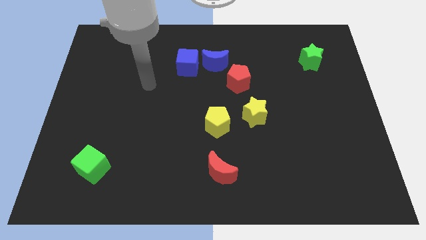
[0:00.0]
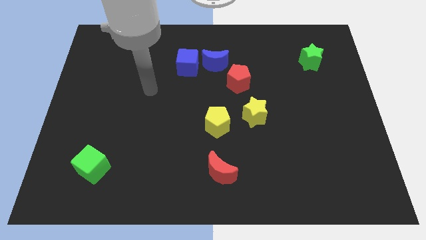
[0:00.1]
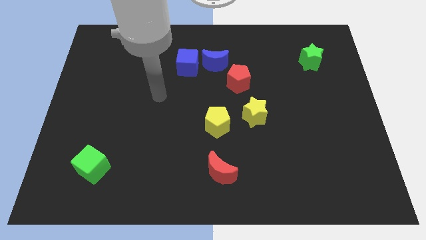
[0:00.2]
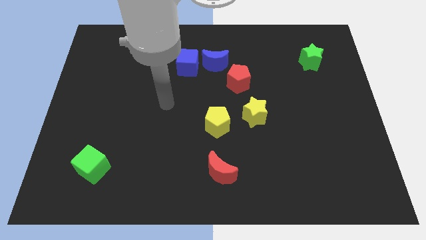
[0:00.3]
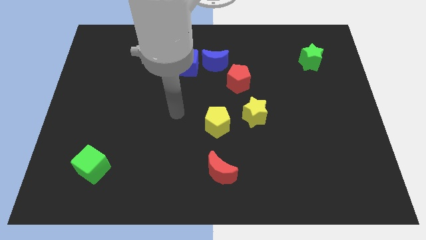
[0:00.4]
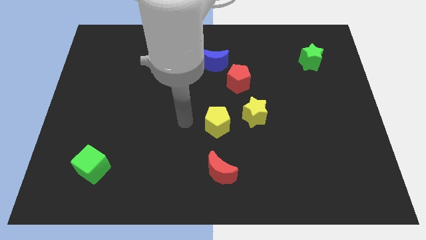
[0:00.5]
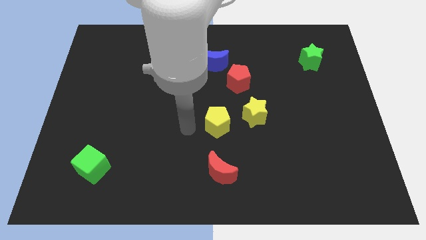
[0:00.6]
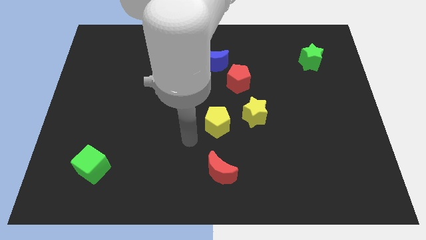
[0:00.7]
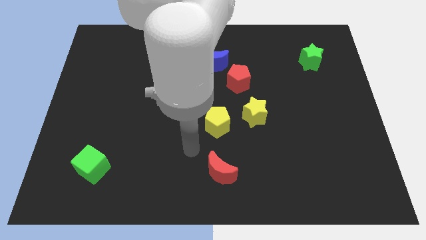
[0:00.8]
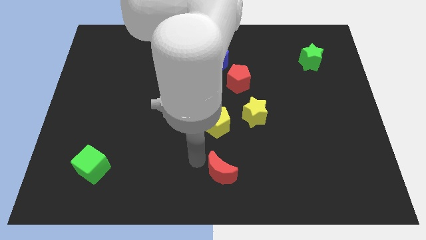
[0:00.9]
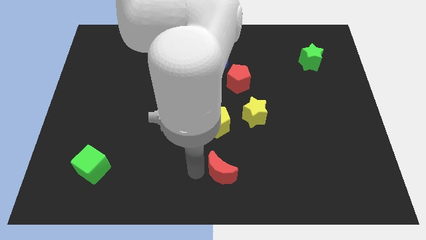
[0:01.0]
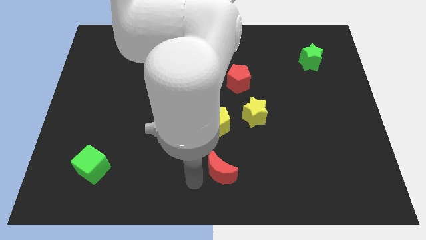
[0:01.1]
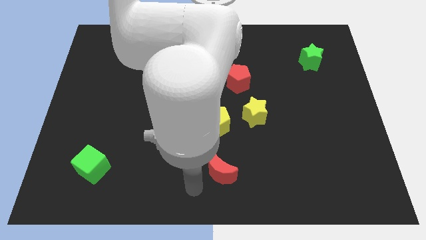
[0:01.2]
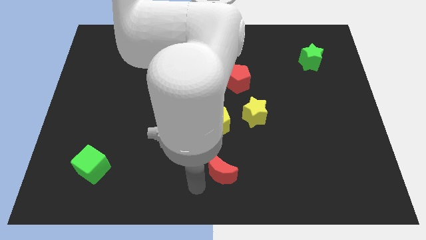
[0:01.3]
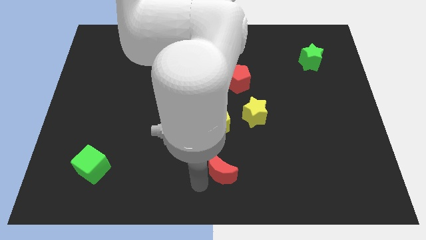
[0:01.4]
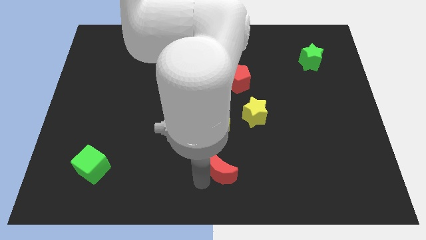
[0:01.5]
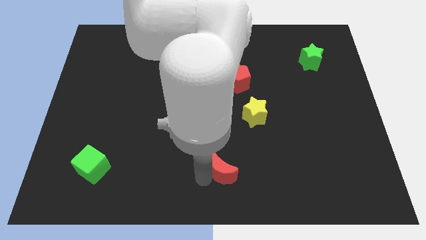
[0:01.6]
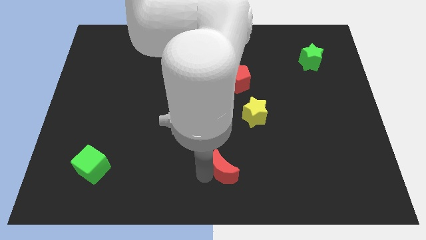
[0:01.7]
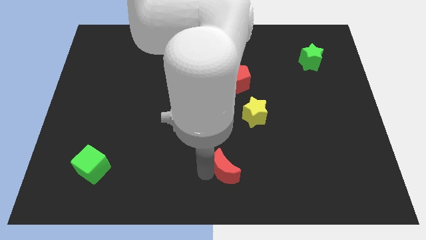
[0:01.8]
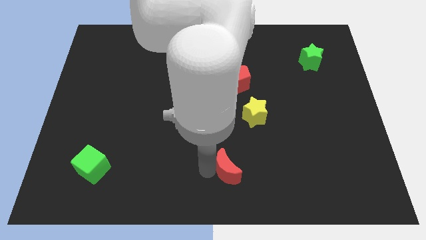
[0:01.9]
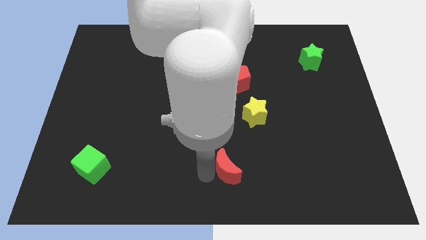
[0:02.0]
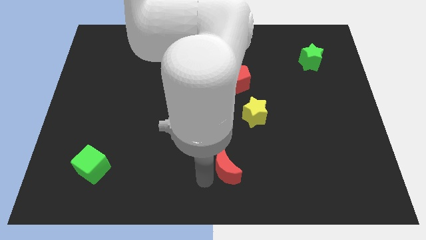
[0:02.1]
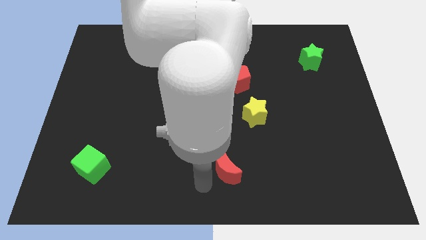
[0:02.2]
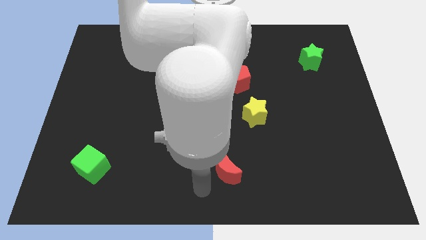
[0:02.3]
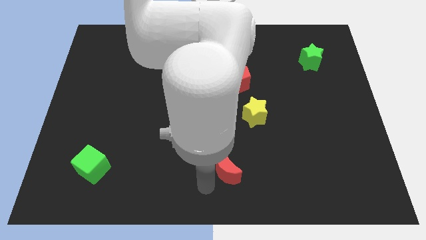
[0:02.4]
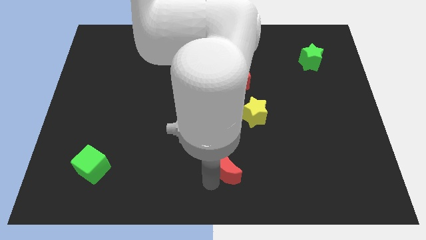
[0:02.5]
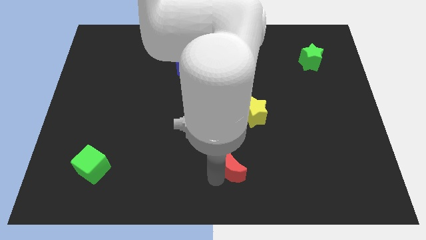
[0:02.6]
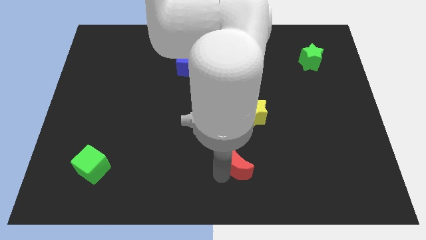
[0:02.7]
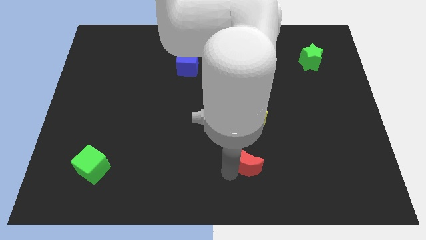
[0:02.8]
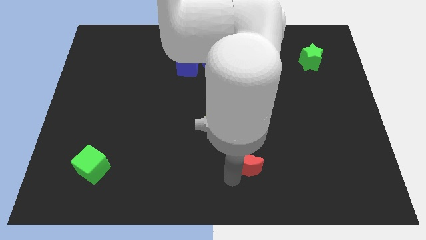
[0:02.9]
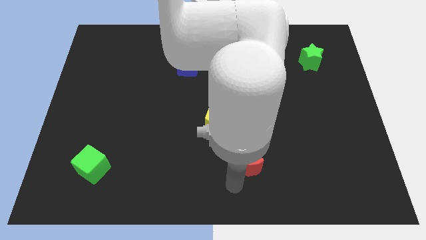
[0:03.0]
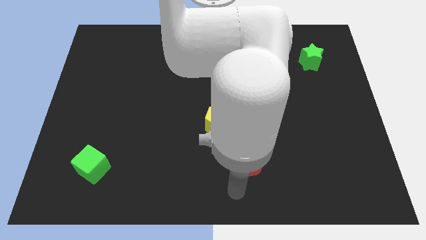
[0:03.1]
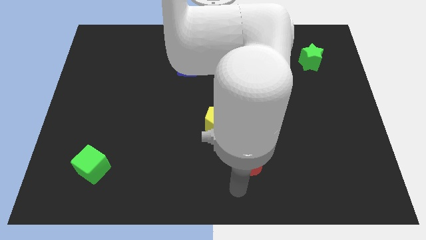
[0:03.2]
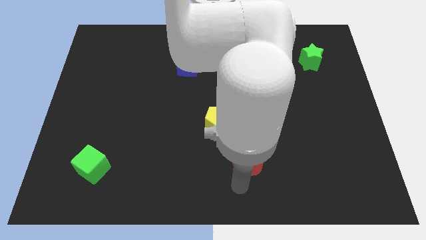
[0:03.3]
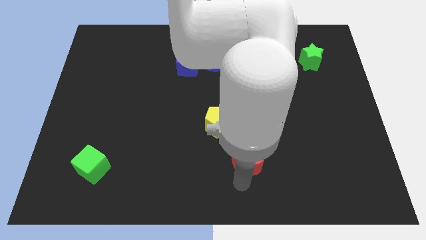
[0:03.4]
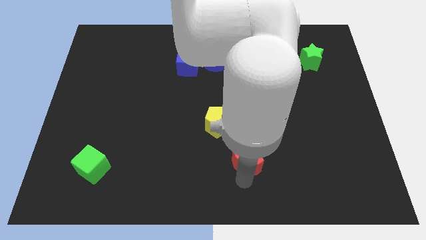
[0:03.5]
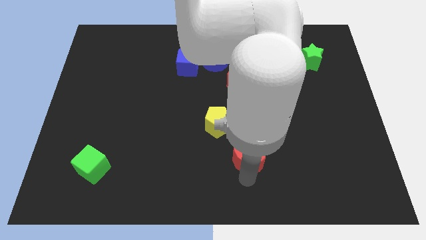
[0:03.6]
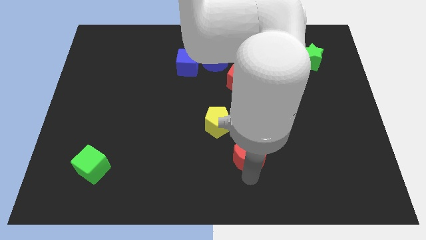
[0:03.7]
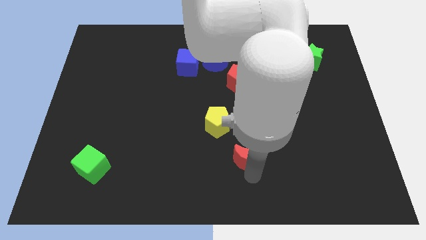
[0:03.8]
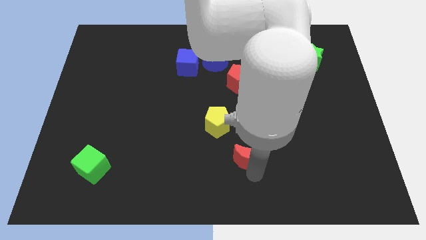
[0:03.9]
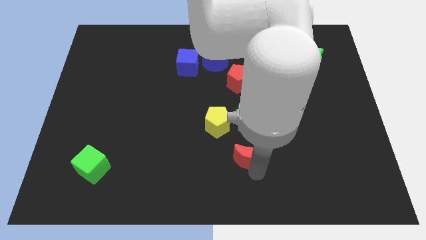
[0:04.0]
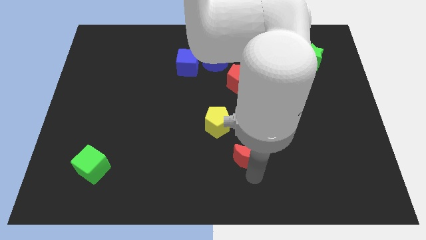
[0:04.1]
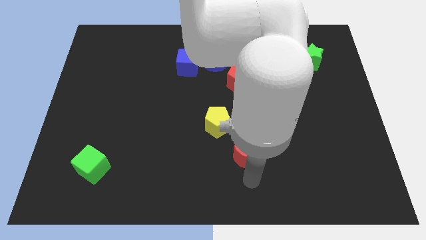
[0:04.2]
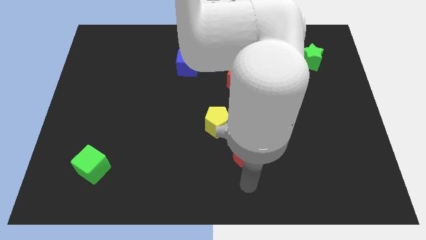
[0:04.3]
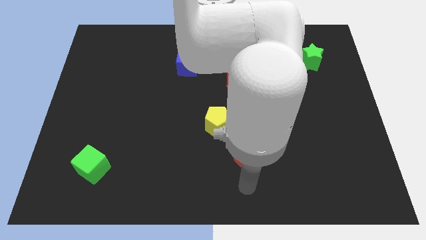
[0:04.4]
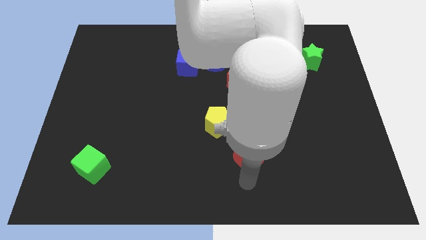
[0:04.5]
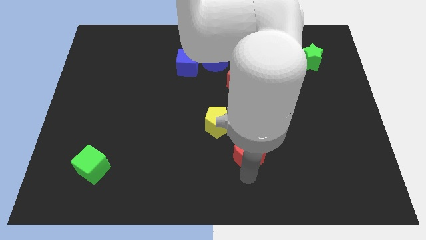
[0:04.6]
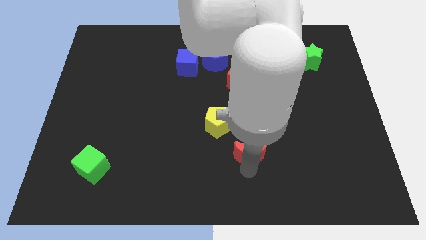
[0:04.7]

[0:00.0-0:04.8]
move the red moon slightly up and right diagonally

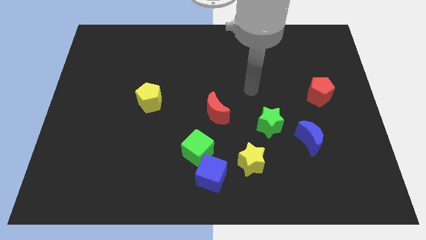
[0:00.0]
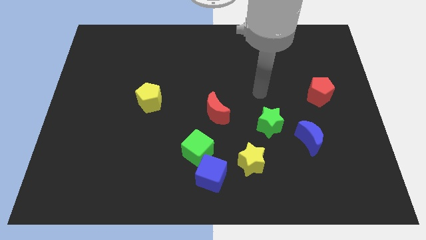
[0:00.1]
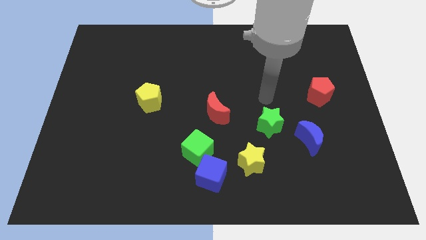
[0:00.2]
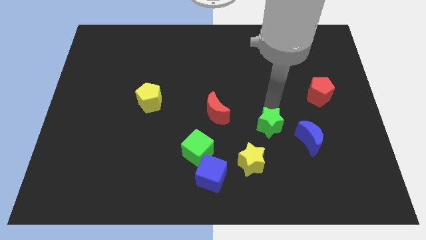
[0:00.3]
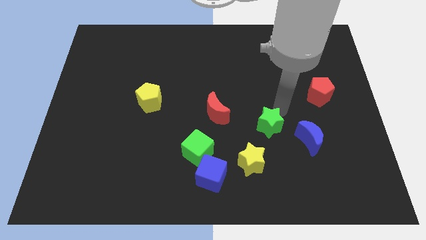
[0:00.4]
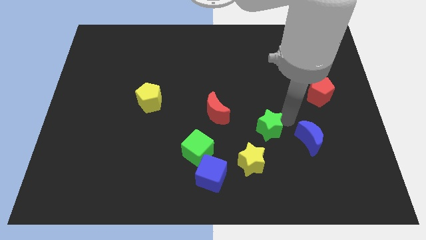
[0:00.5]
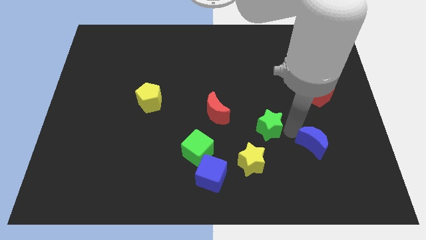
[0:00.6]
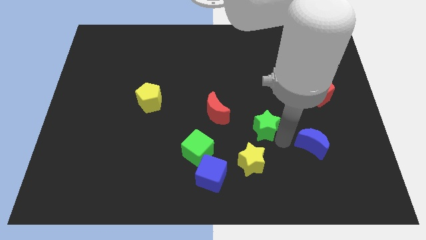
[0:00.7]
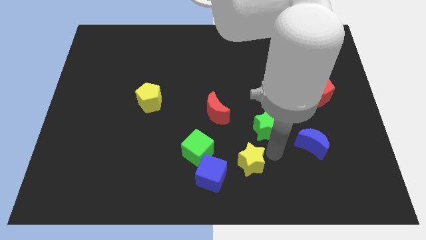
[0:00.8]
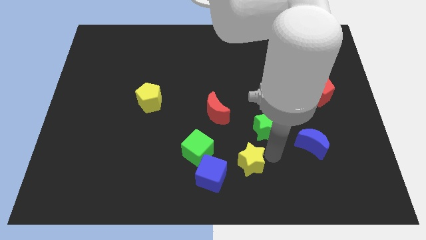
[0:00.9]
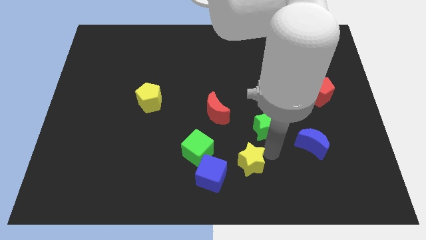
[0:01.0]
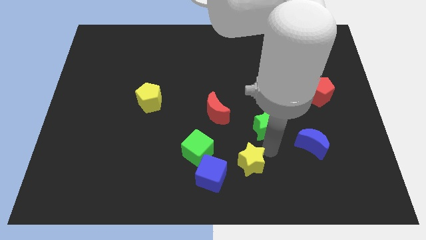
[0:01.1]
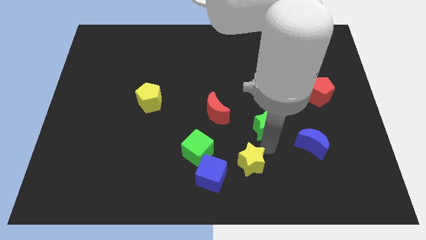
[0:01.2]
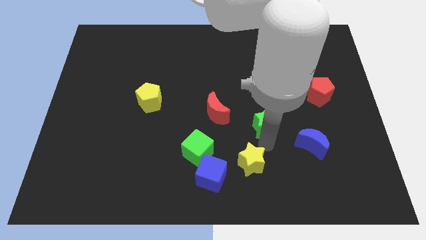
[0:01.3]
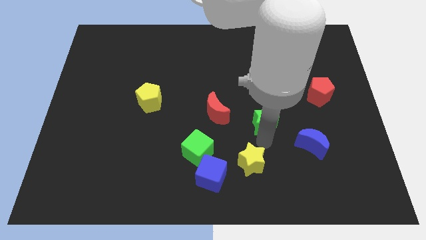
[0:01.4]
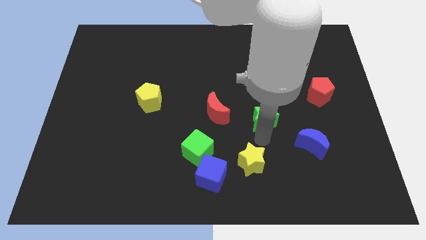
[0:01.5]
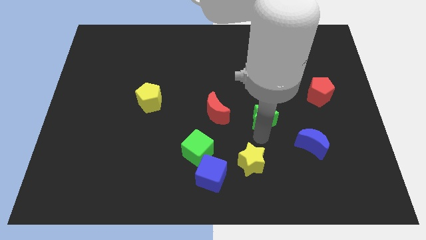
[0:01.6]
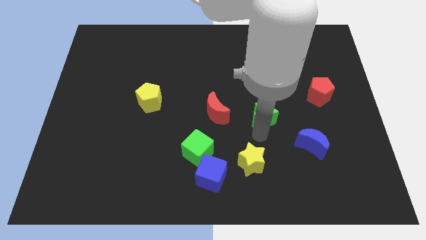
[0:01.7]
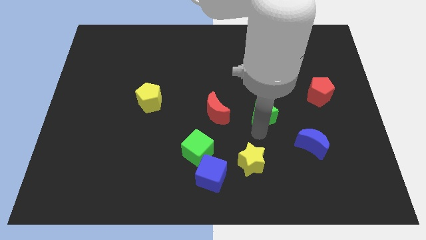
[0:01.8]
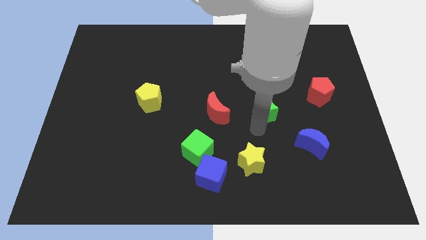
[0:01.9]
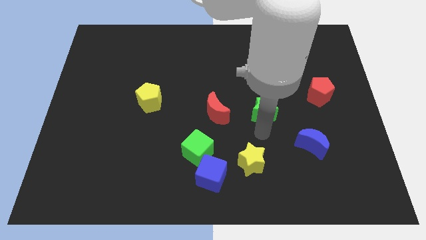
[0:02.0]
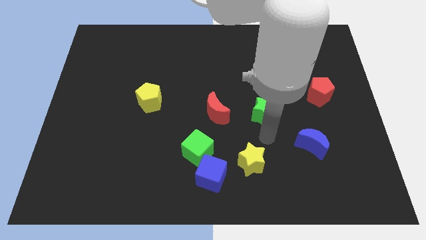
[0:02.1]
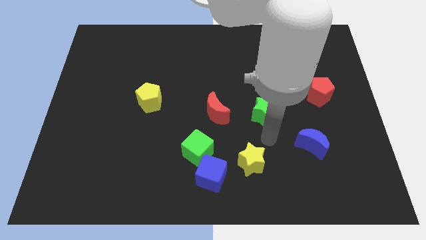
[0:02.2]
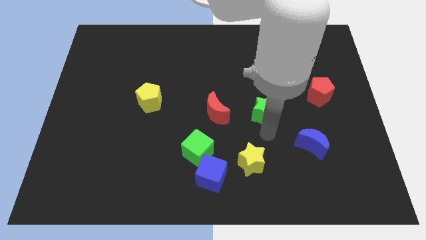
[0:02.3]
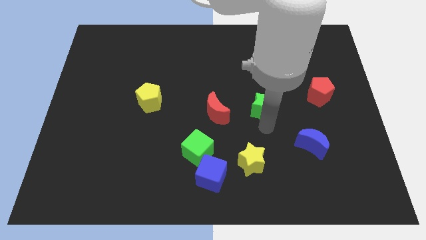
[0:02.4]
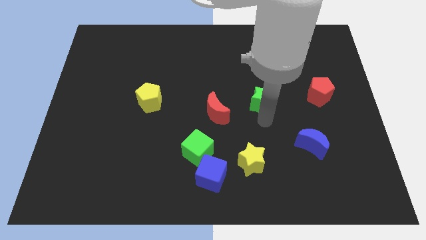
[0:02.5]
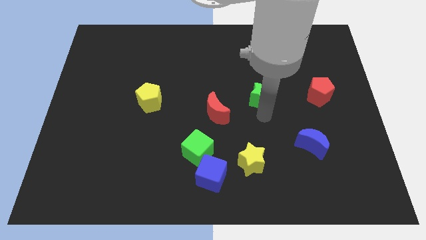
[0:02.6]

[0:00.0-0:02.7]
push the green star up a little bit
